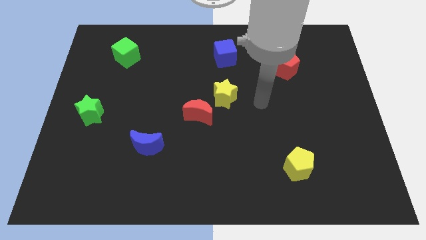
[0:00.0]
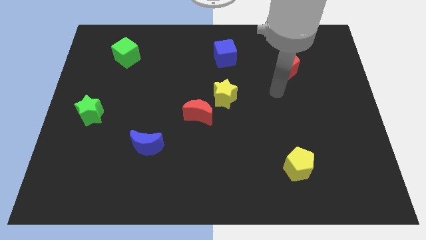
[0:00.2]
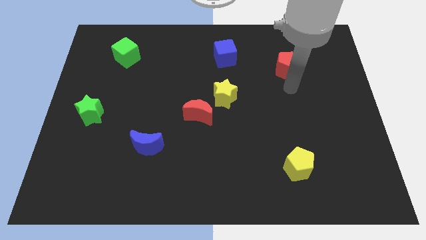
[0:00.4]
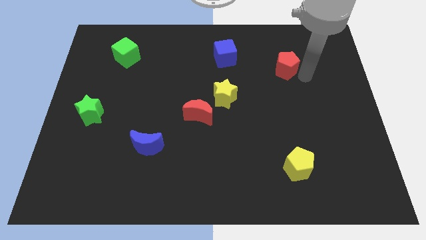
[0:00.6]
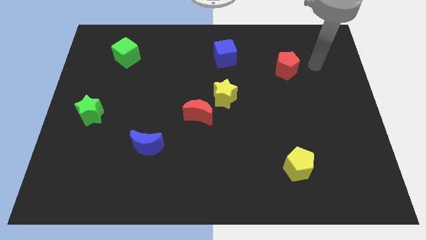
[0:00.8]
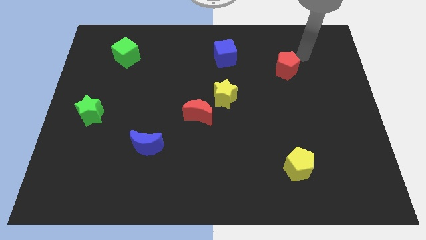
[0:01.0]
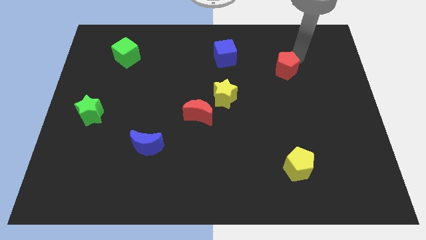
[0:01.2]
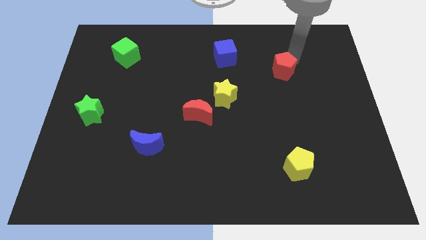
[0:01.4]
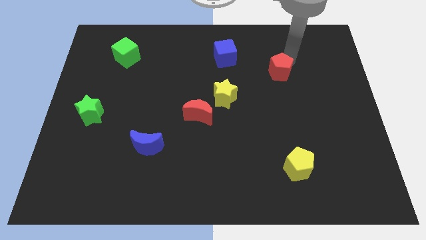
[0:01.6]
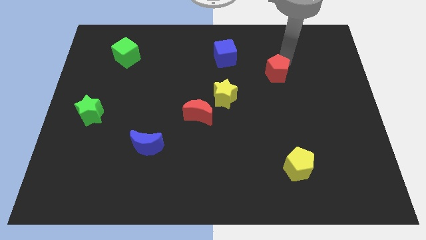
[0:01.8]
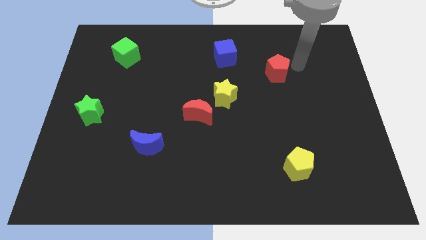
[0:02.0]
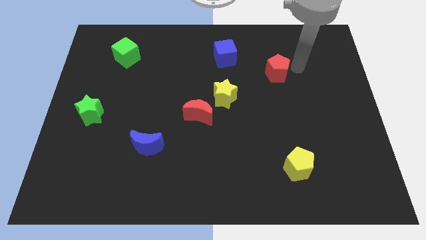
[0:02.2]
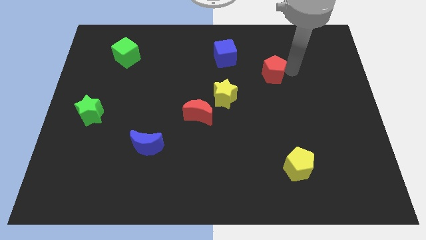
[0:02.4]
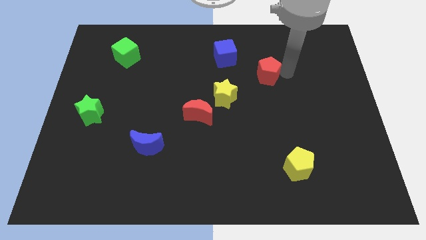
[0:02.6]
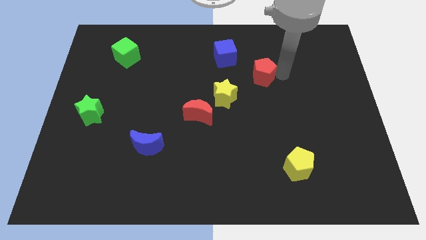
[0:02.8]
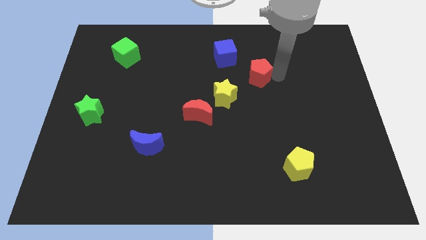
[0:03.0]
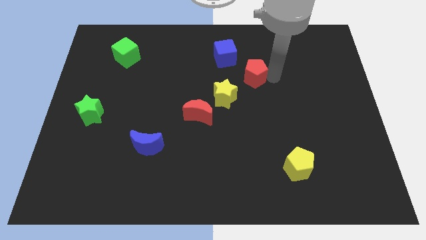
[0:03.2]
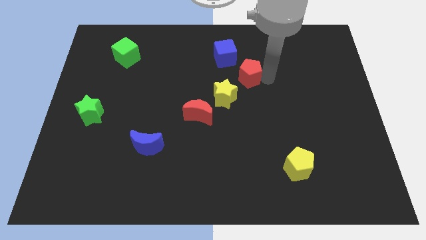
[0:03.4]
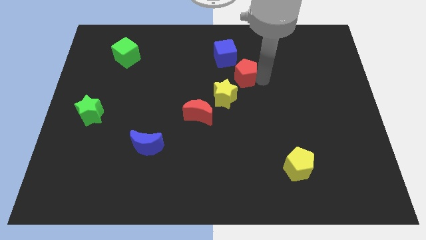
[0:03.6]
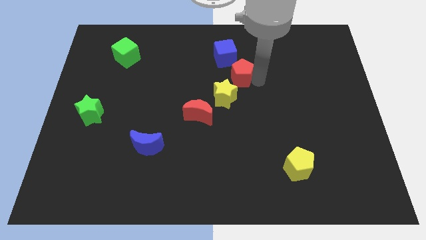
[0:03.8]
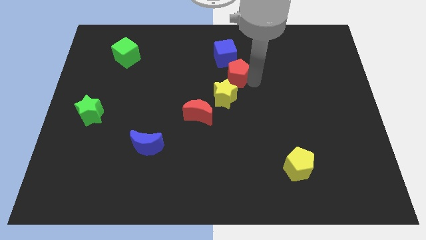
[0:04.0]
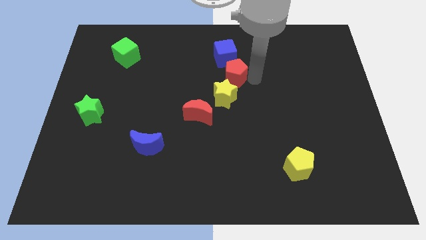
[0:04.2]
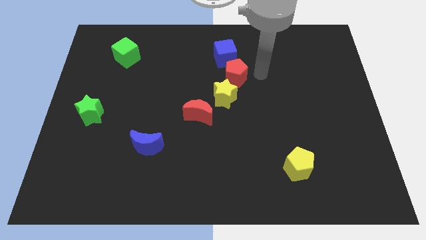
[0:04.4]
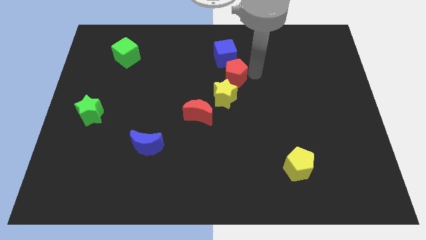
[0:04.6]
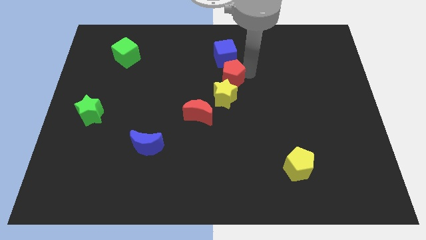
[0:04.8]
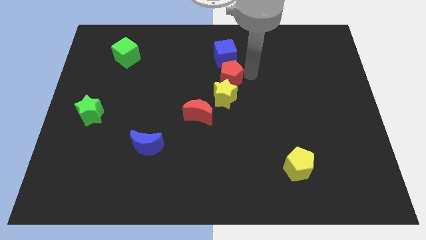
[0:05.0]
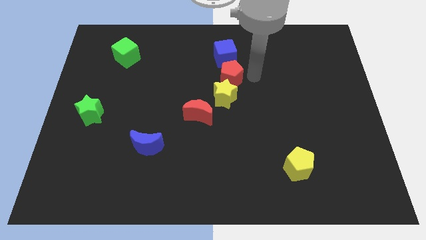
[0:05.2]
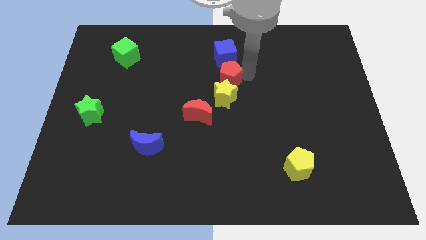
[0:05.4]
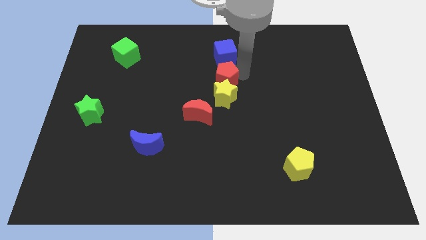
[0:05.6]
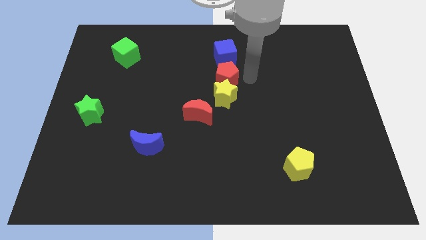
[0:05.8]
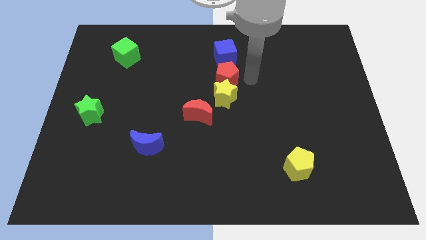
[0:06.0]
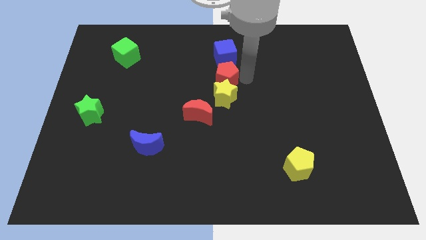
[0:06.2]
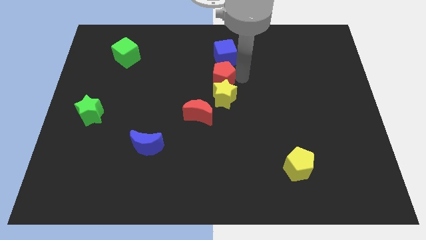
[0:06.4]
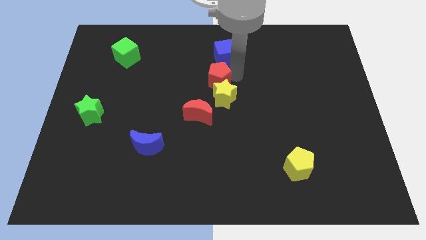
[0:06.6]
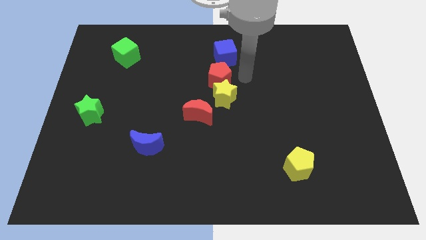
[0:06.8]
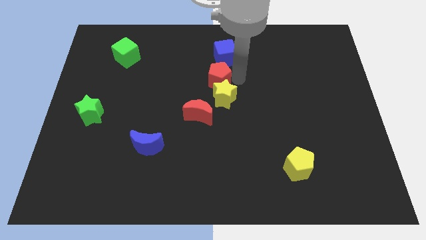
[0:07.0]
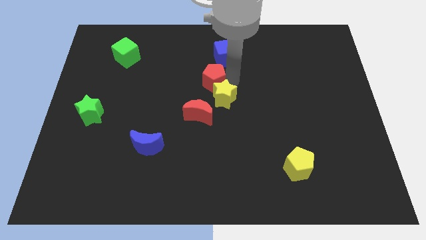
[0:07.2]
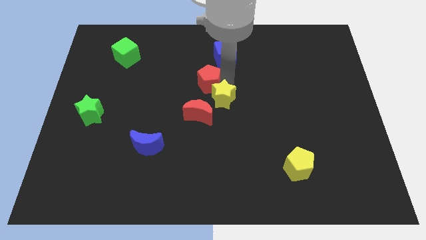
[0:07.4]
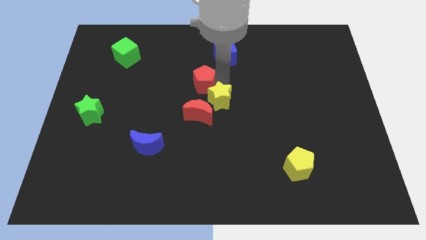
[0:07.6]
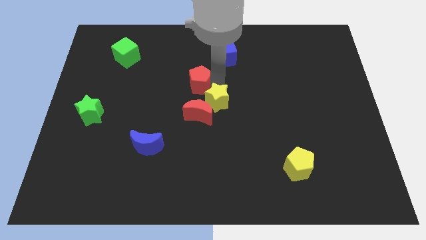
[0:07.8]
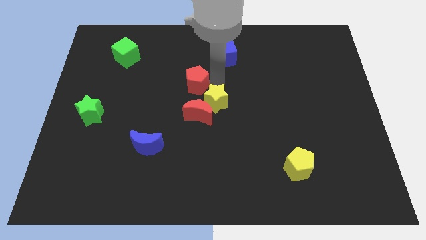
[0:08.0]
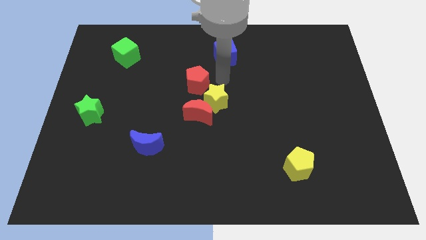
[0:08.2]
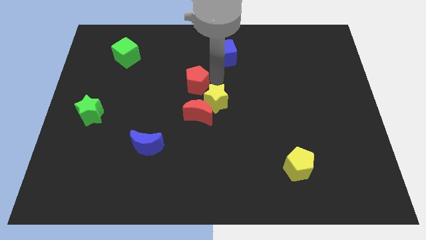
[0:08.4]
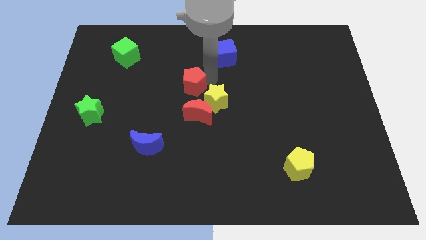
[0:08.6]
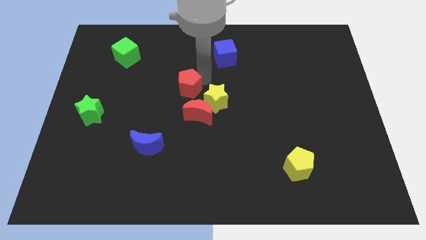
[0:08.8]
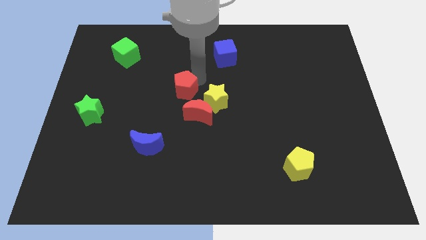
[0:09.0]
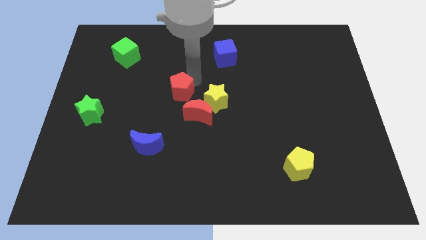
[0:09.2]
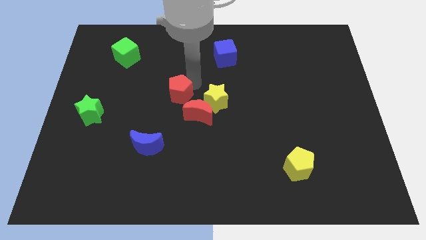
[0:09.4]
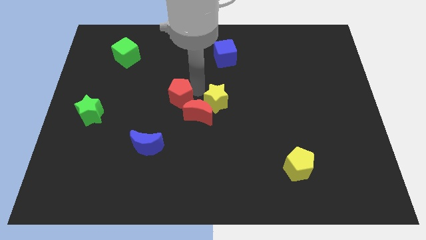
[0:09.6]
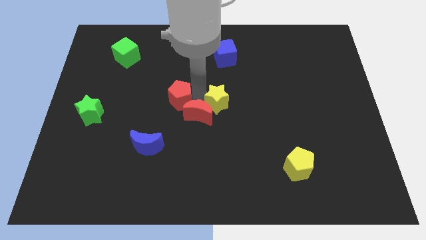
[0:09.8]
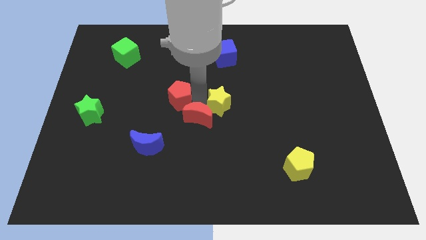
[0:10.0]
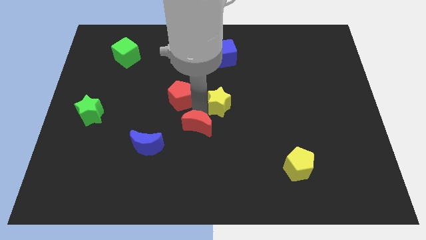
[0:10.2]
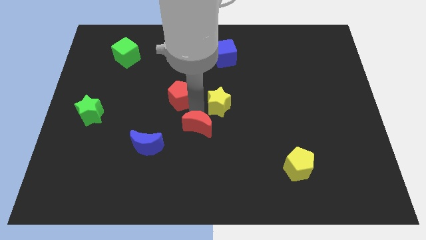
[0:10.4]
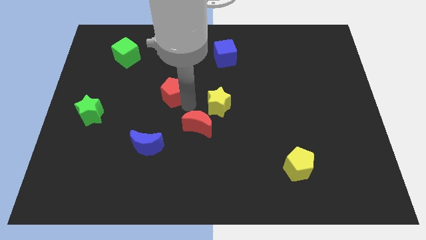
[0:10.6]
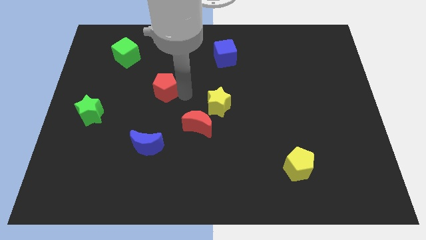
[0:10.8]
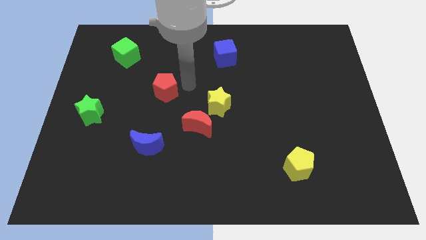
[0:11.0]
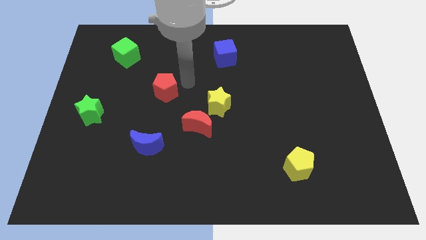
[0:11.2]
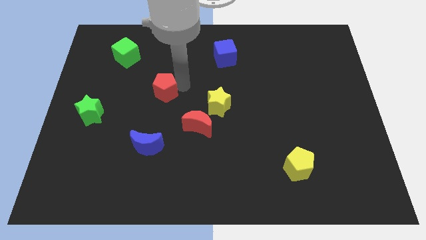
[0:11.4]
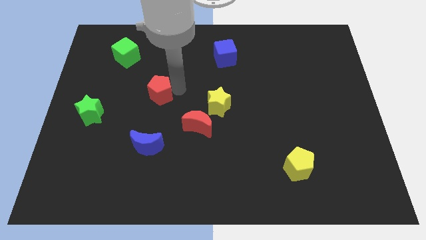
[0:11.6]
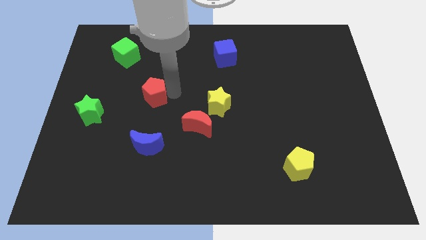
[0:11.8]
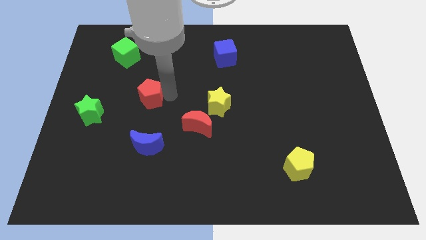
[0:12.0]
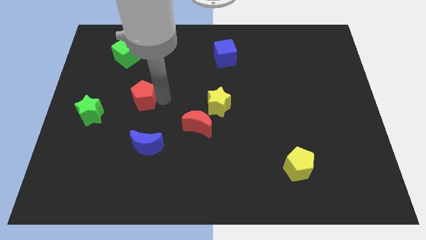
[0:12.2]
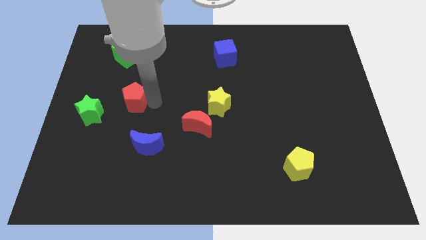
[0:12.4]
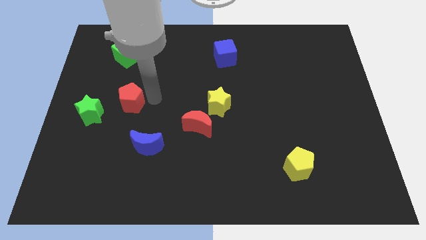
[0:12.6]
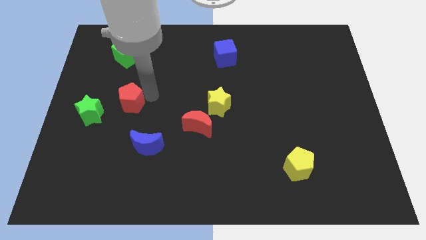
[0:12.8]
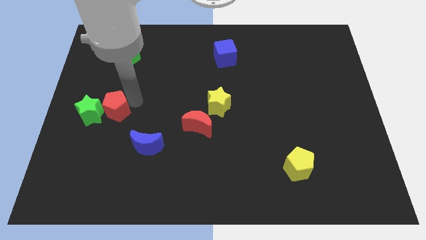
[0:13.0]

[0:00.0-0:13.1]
push the red pentagon close to the green star

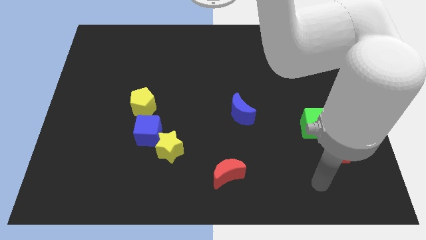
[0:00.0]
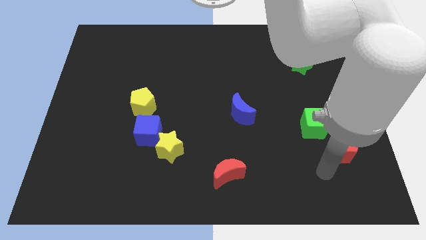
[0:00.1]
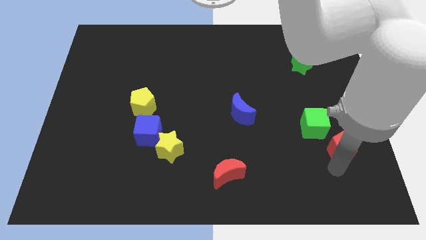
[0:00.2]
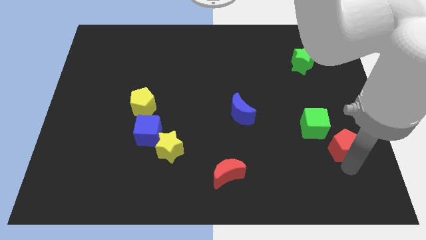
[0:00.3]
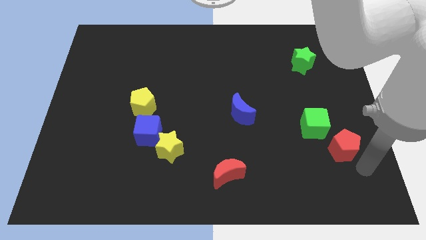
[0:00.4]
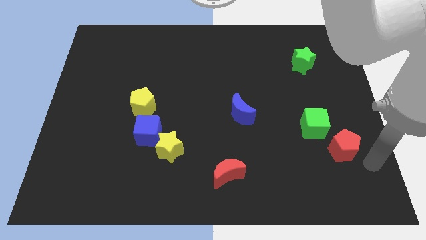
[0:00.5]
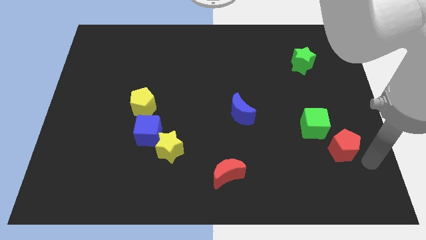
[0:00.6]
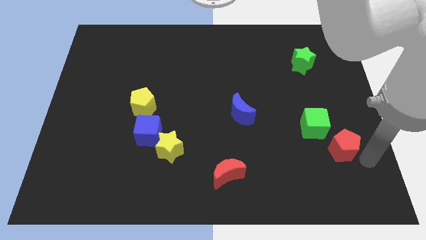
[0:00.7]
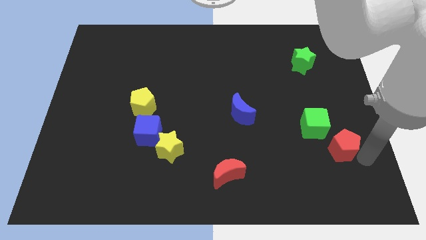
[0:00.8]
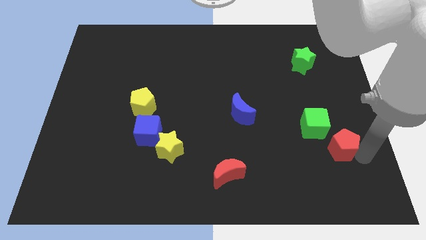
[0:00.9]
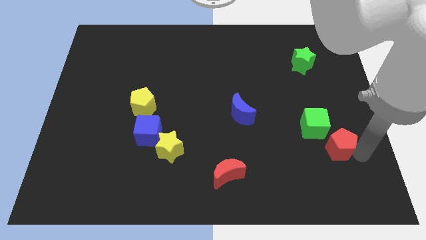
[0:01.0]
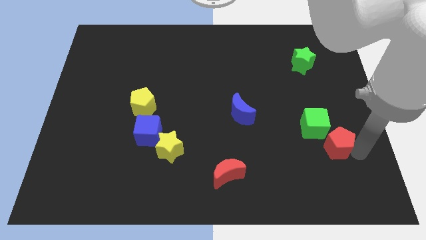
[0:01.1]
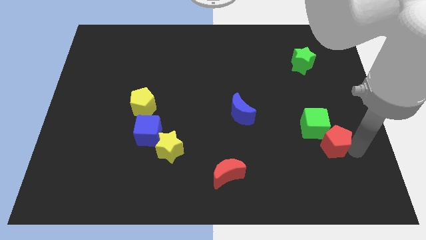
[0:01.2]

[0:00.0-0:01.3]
put the red pentagon close to the green cube

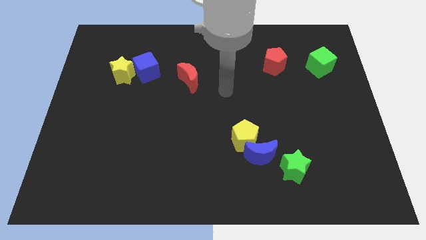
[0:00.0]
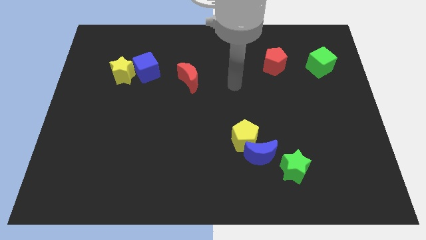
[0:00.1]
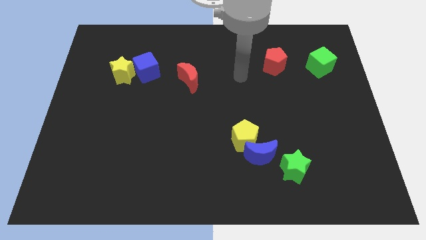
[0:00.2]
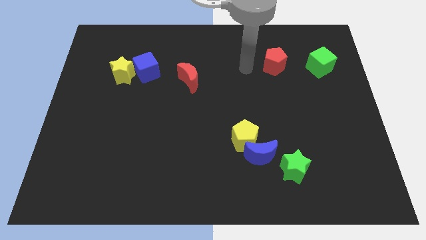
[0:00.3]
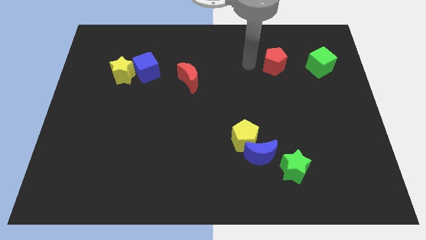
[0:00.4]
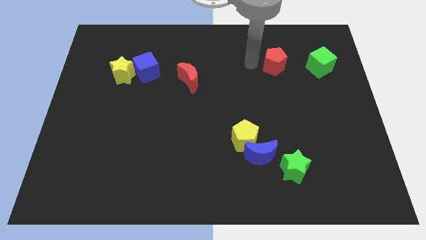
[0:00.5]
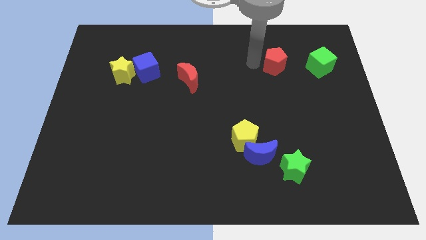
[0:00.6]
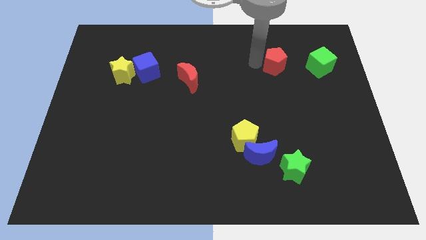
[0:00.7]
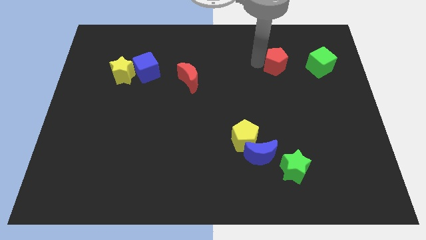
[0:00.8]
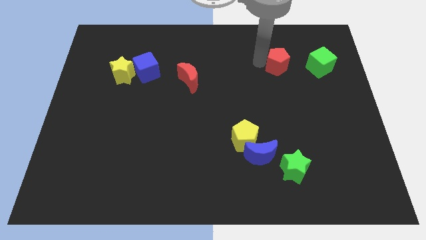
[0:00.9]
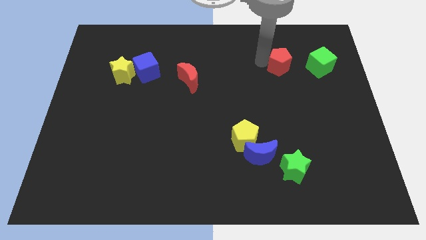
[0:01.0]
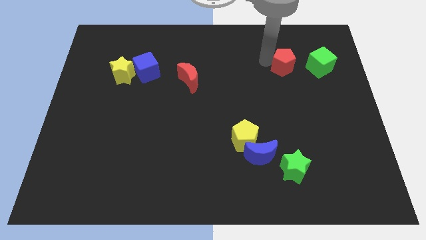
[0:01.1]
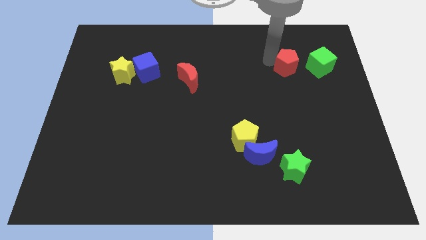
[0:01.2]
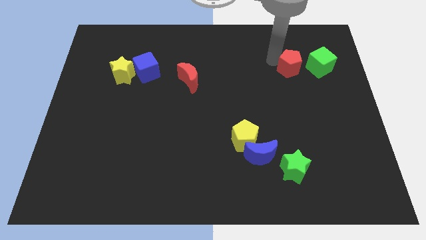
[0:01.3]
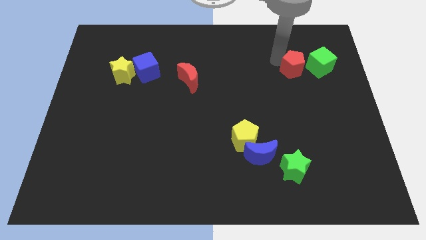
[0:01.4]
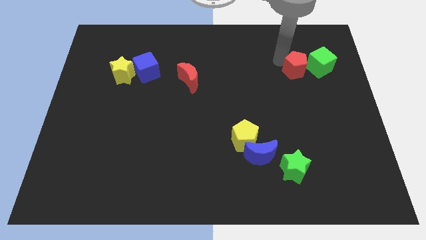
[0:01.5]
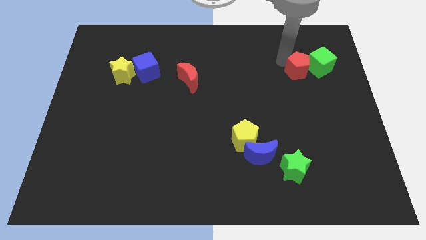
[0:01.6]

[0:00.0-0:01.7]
put the red pentagon towards the green cube
